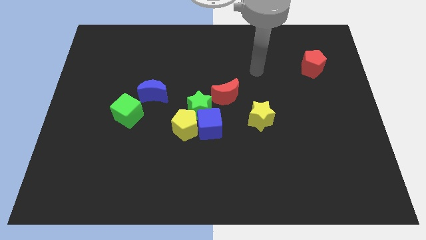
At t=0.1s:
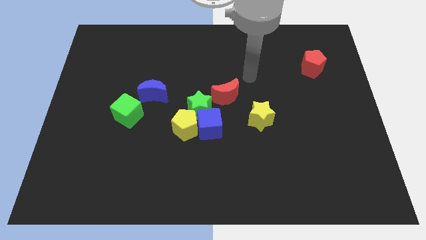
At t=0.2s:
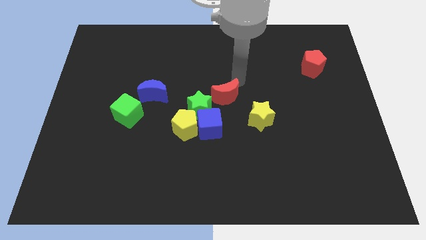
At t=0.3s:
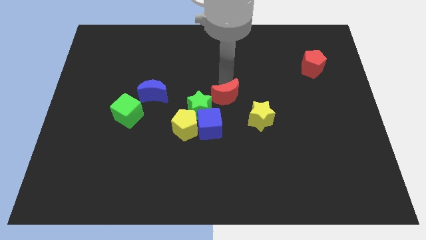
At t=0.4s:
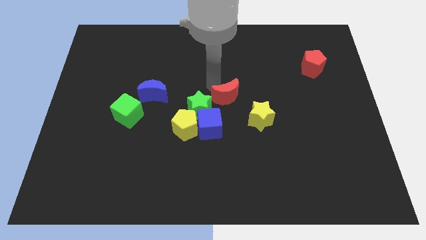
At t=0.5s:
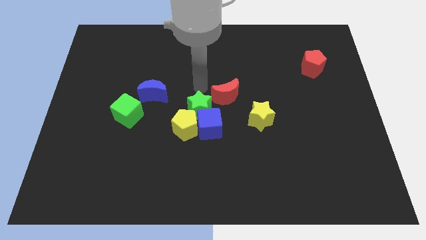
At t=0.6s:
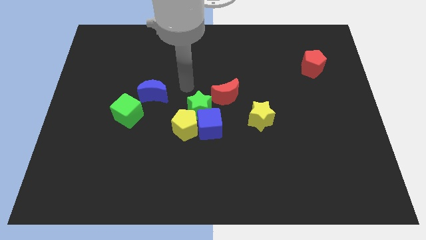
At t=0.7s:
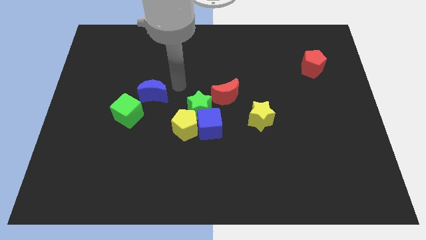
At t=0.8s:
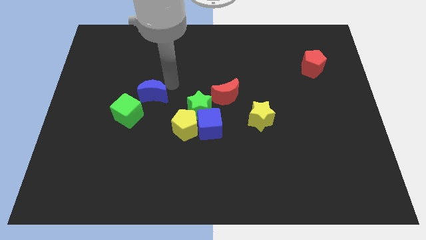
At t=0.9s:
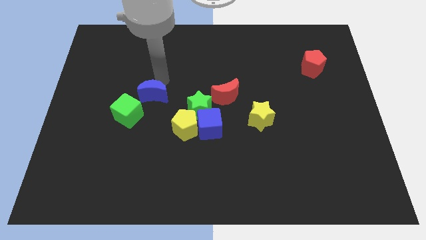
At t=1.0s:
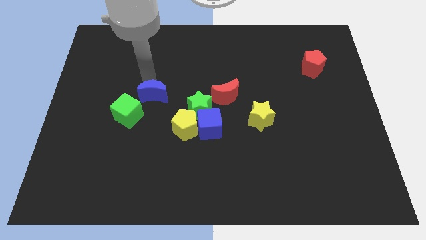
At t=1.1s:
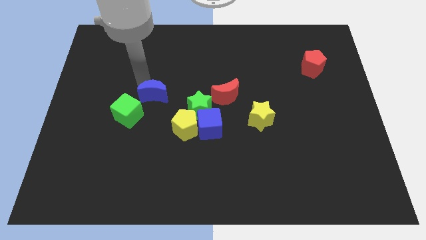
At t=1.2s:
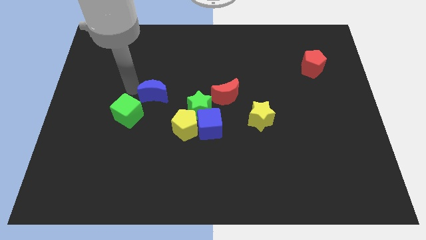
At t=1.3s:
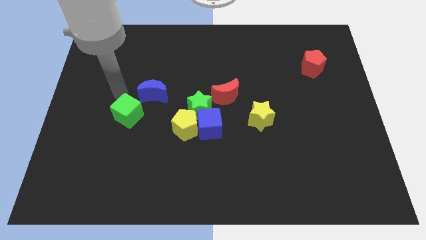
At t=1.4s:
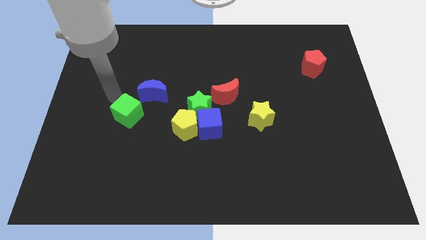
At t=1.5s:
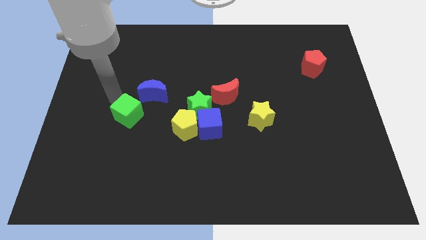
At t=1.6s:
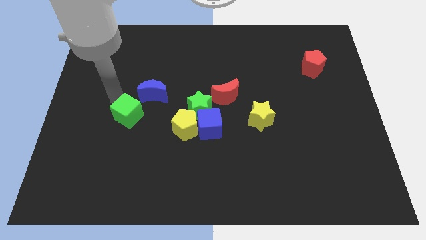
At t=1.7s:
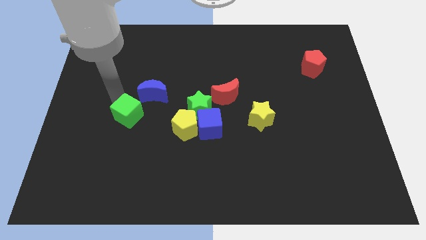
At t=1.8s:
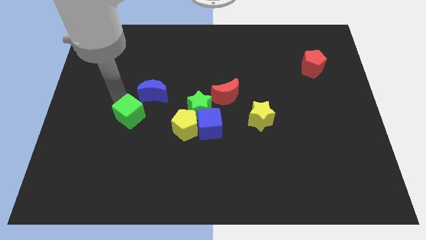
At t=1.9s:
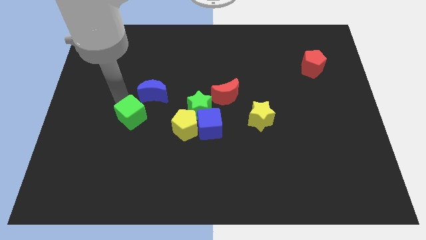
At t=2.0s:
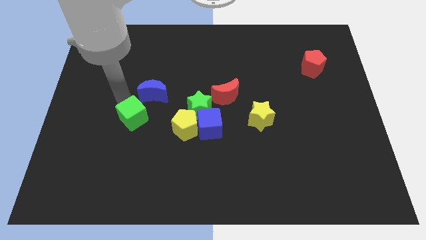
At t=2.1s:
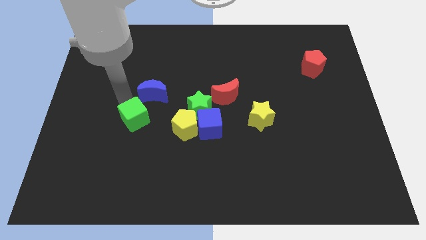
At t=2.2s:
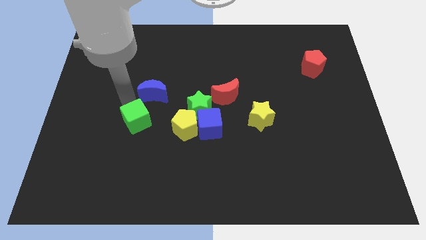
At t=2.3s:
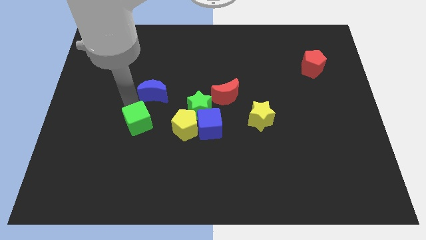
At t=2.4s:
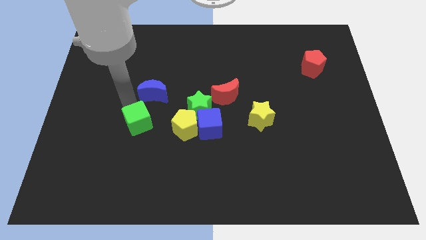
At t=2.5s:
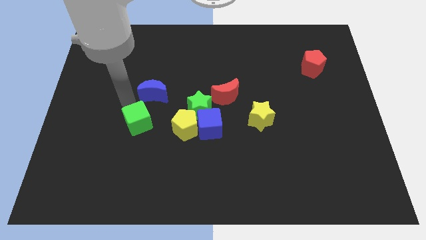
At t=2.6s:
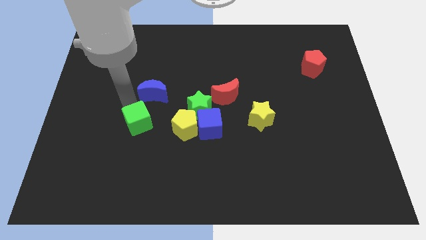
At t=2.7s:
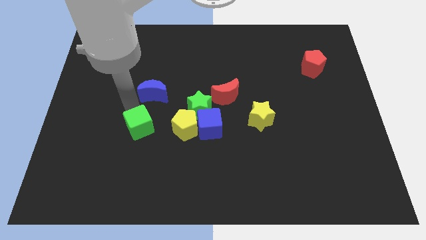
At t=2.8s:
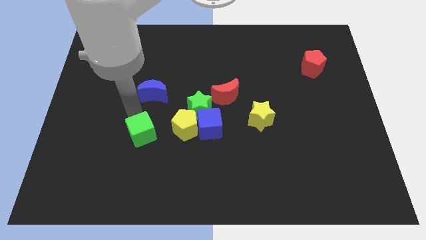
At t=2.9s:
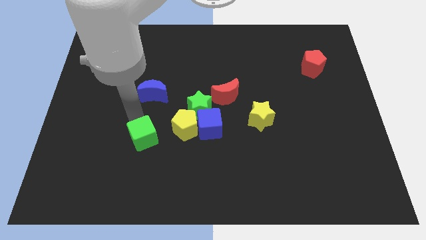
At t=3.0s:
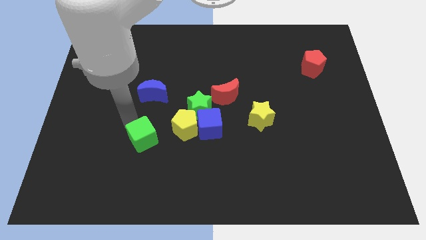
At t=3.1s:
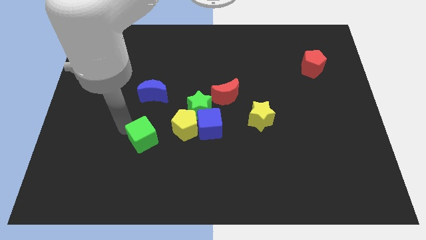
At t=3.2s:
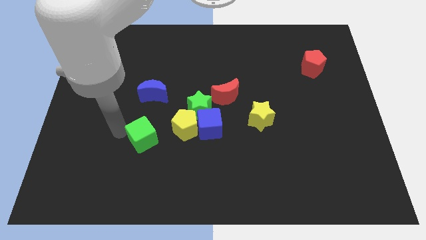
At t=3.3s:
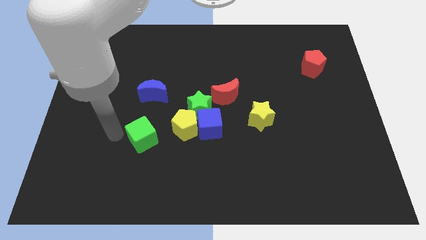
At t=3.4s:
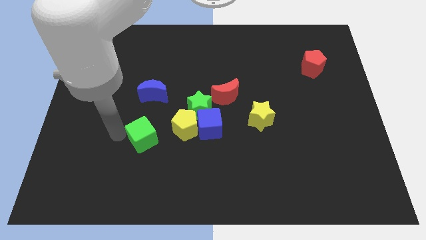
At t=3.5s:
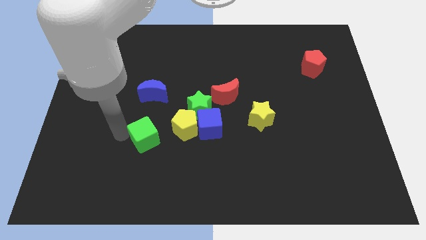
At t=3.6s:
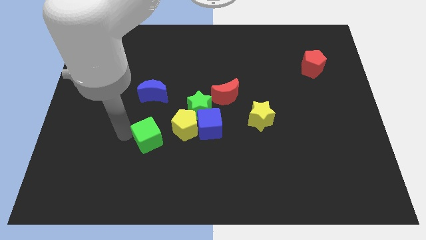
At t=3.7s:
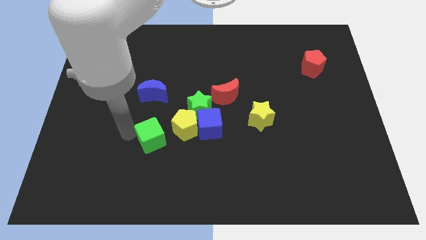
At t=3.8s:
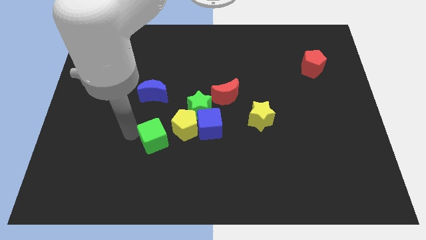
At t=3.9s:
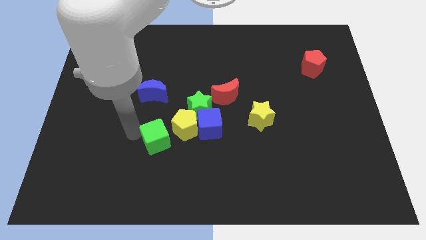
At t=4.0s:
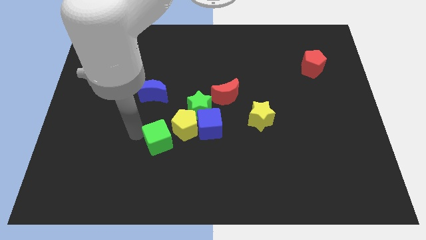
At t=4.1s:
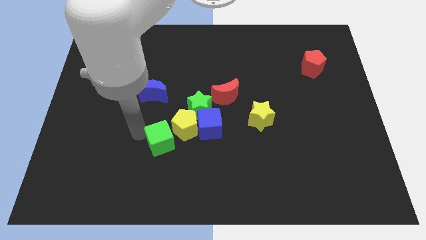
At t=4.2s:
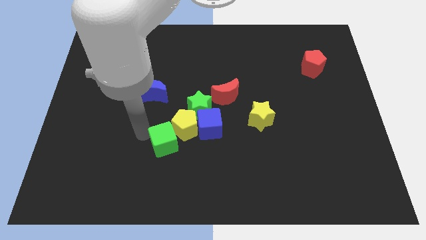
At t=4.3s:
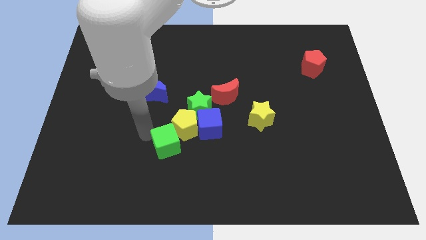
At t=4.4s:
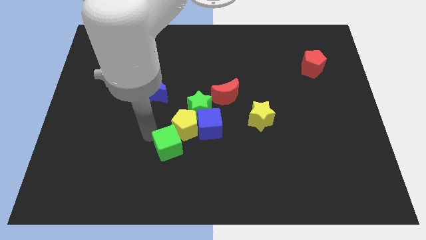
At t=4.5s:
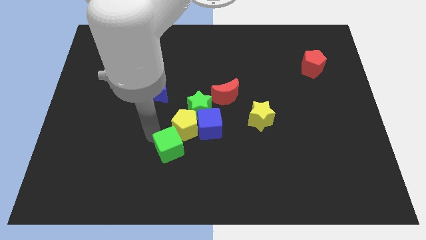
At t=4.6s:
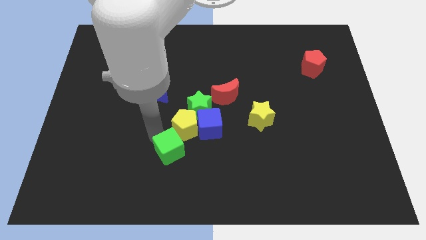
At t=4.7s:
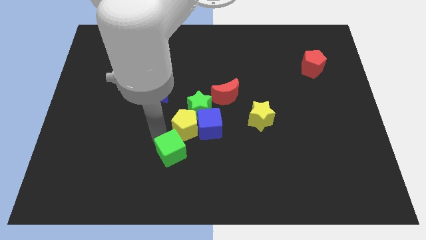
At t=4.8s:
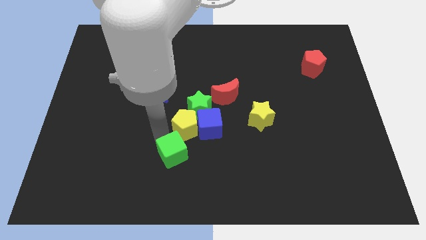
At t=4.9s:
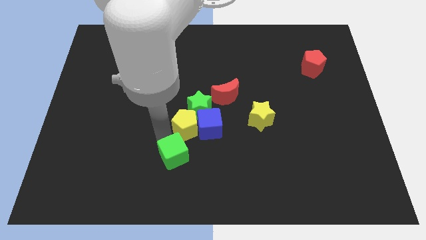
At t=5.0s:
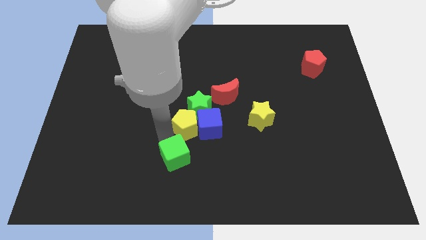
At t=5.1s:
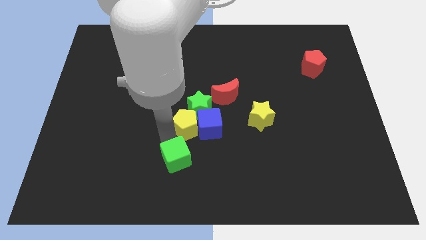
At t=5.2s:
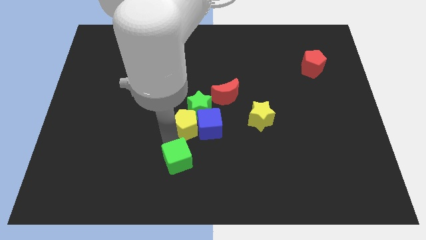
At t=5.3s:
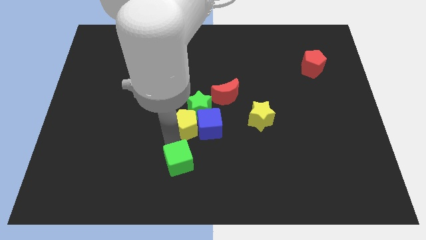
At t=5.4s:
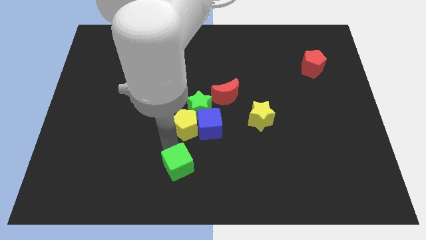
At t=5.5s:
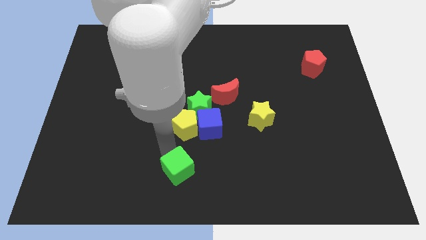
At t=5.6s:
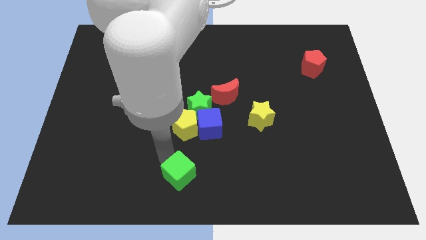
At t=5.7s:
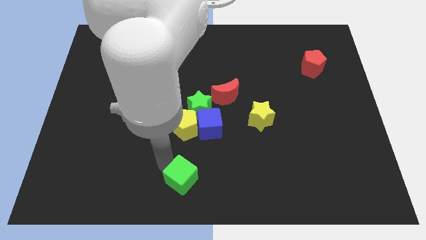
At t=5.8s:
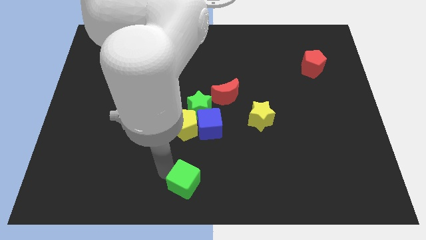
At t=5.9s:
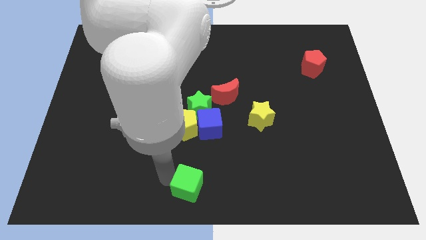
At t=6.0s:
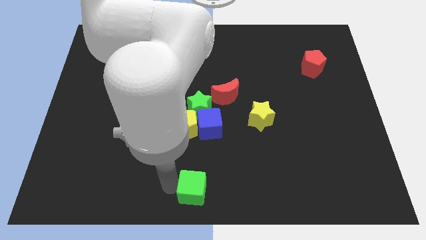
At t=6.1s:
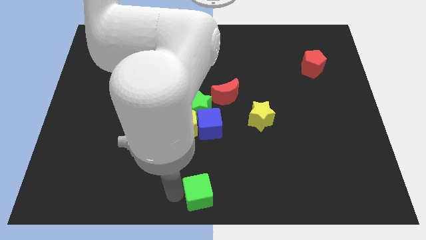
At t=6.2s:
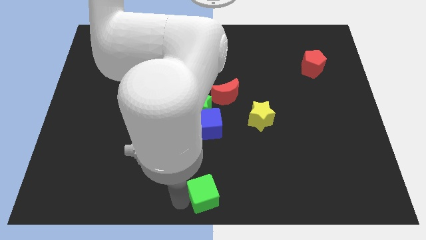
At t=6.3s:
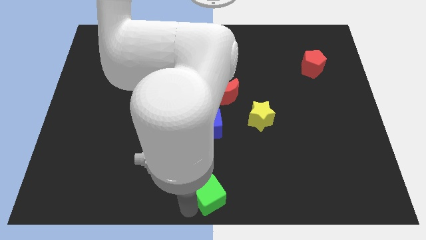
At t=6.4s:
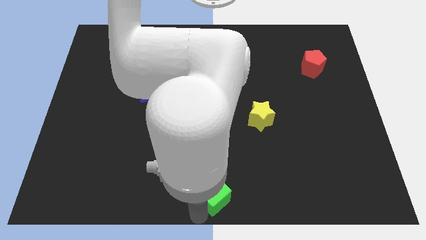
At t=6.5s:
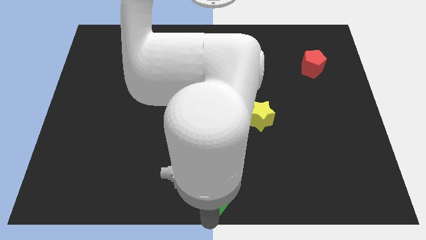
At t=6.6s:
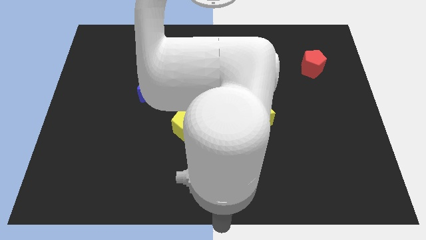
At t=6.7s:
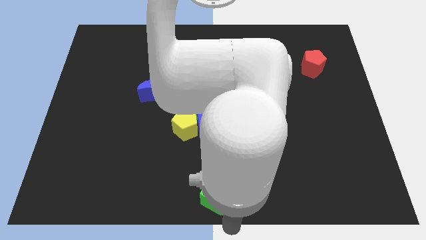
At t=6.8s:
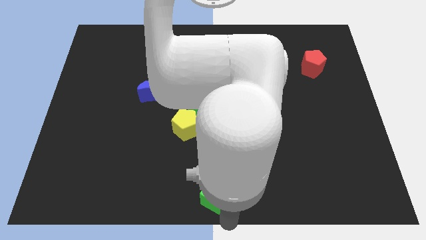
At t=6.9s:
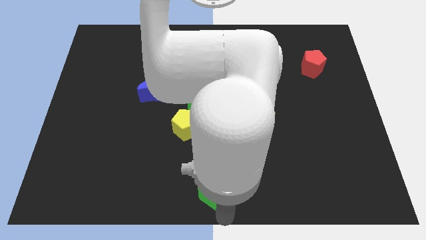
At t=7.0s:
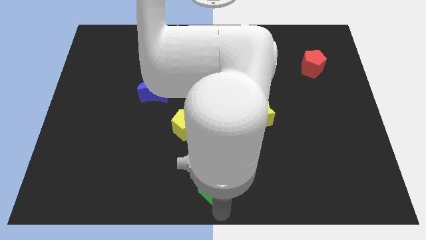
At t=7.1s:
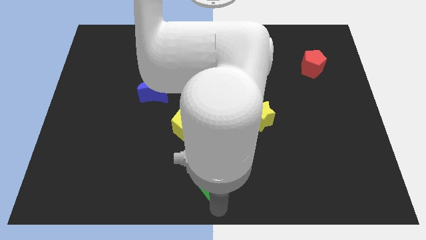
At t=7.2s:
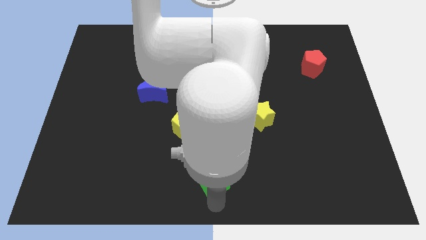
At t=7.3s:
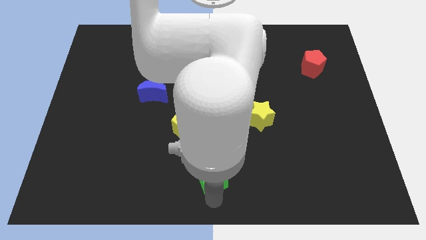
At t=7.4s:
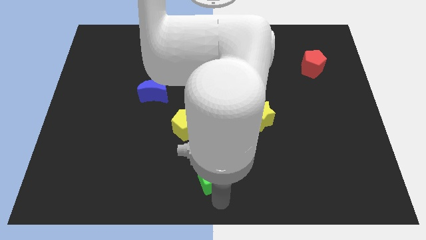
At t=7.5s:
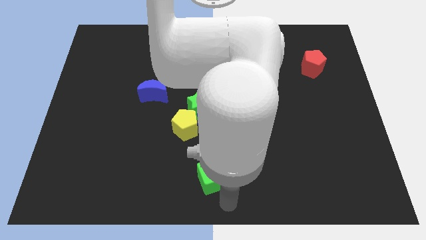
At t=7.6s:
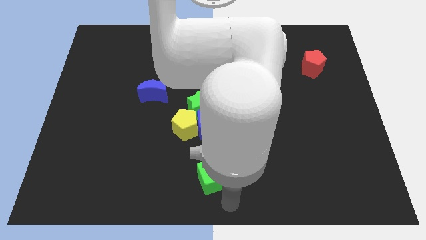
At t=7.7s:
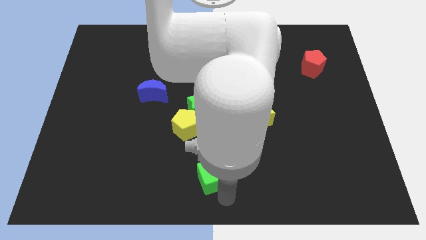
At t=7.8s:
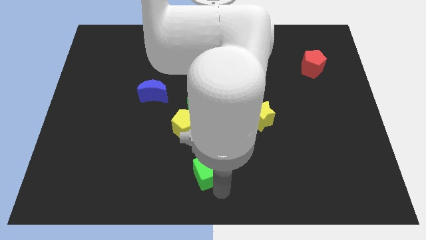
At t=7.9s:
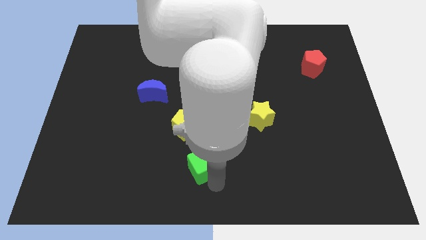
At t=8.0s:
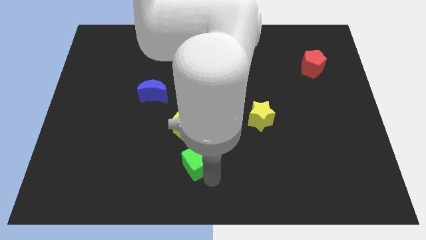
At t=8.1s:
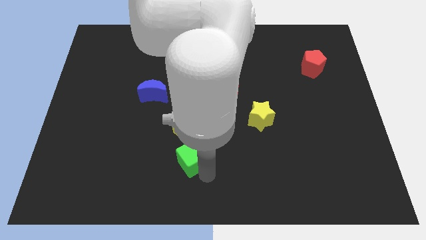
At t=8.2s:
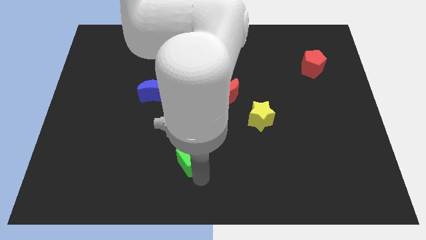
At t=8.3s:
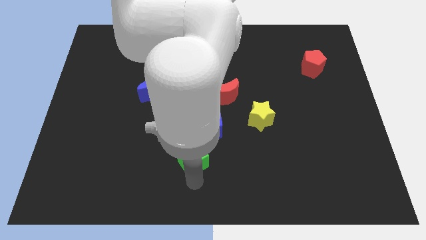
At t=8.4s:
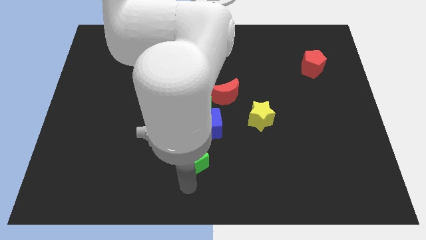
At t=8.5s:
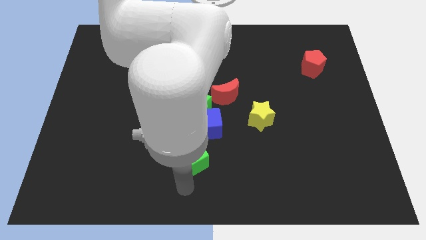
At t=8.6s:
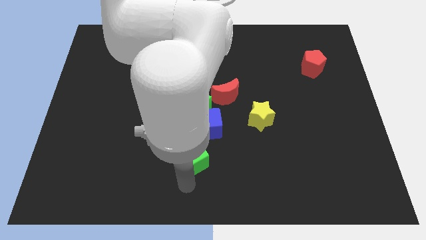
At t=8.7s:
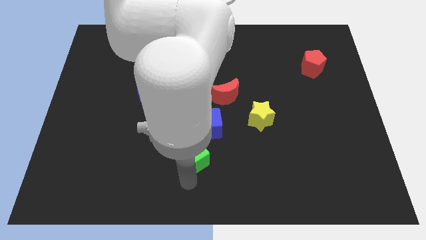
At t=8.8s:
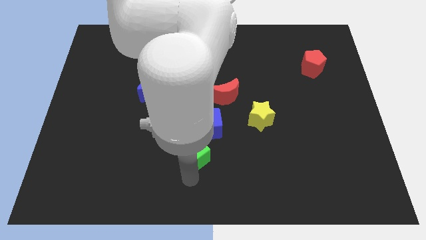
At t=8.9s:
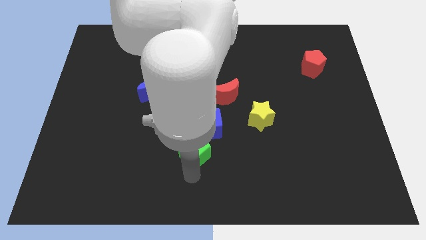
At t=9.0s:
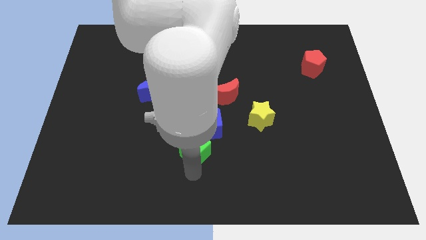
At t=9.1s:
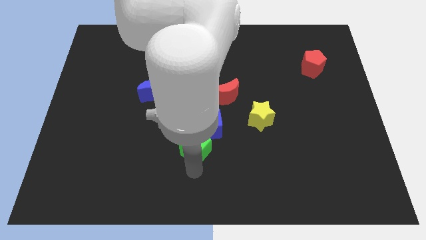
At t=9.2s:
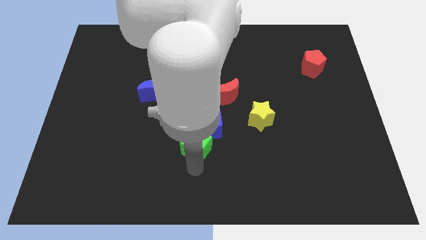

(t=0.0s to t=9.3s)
slide the green cube to the blue cube
